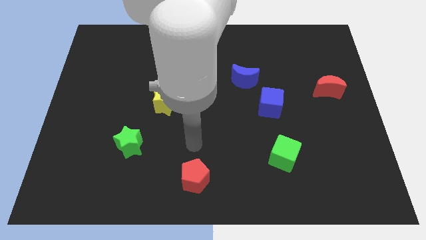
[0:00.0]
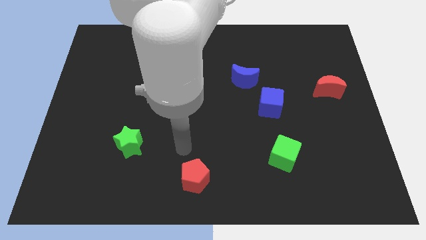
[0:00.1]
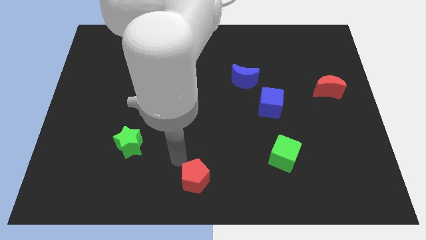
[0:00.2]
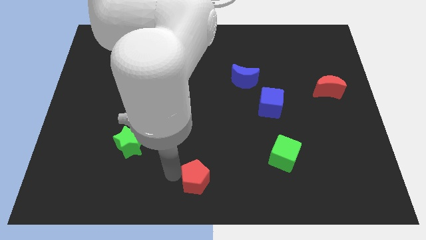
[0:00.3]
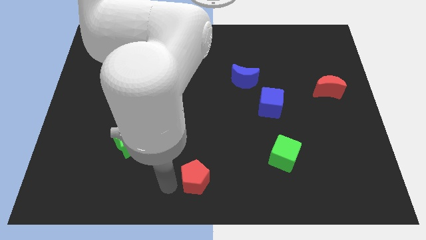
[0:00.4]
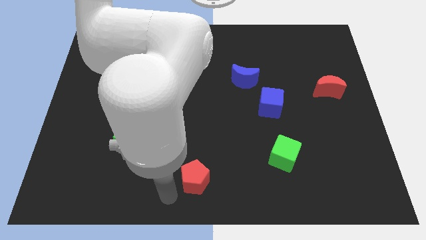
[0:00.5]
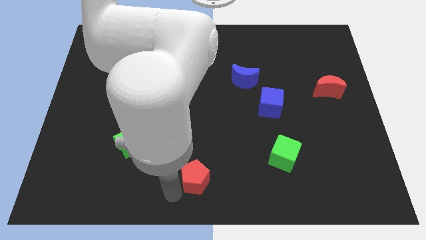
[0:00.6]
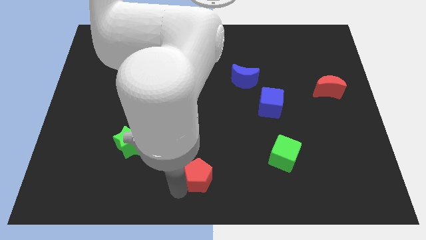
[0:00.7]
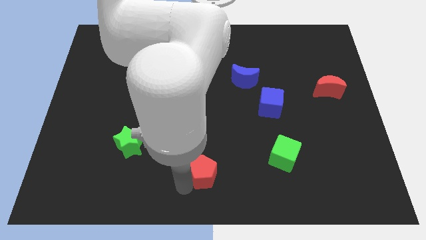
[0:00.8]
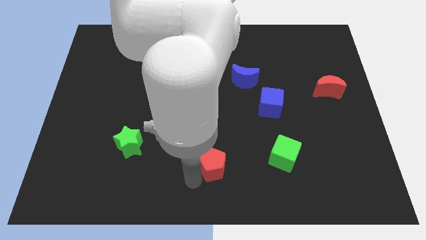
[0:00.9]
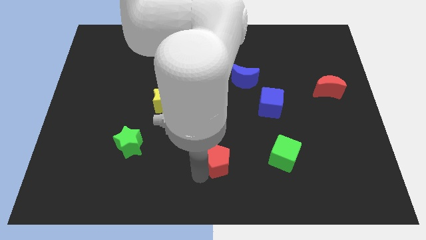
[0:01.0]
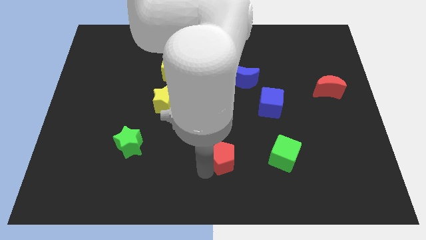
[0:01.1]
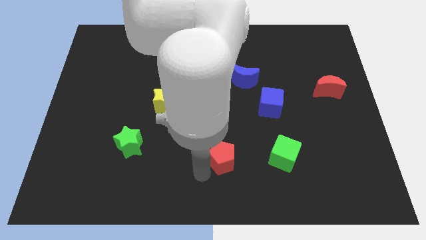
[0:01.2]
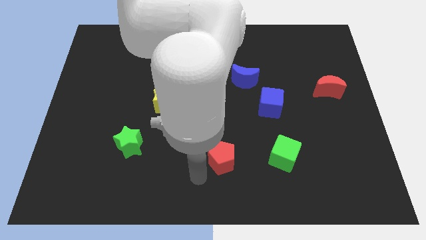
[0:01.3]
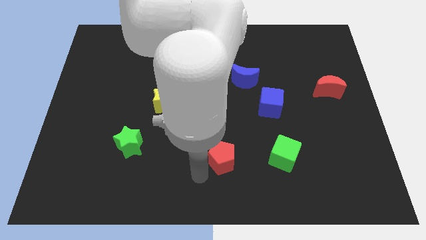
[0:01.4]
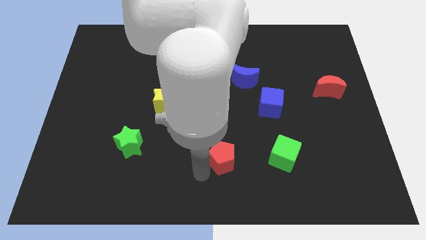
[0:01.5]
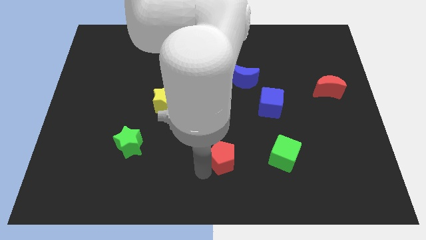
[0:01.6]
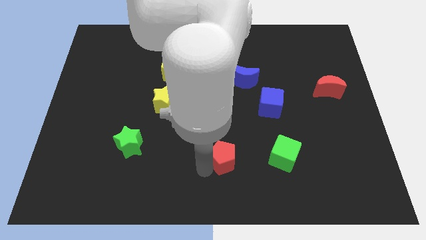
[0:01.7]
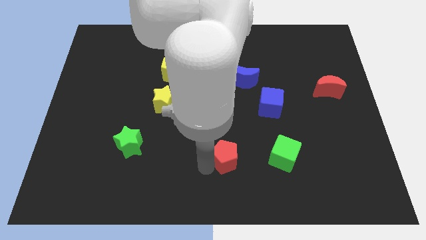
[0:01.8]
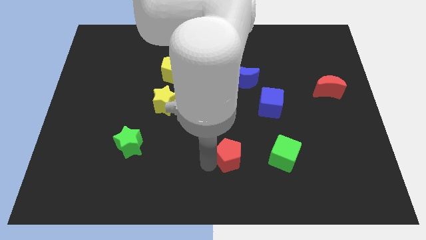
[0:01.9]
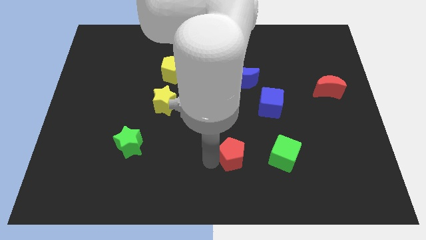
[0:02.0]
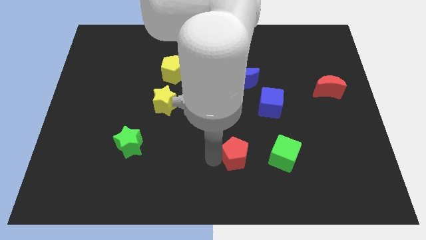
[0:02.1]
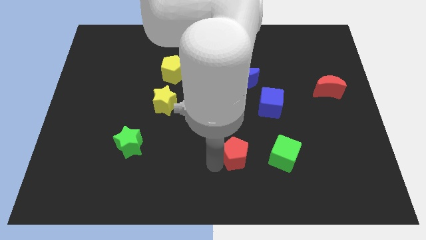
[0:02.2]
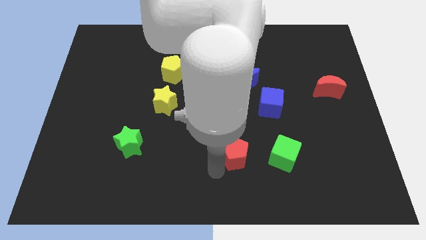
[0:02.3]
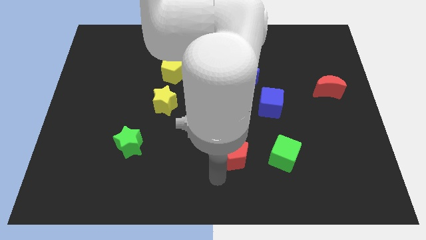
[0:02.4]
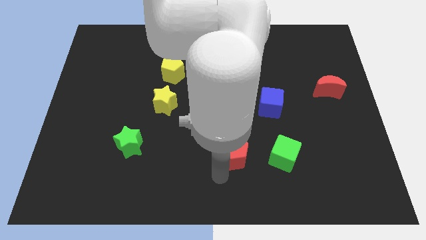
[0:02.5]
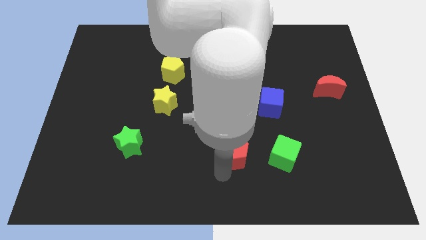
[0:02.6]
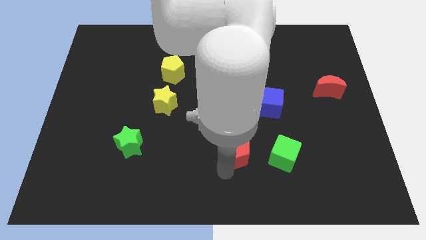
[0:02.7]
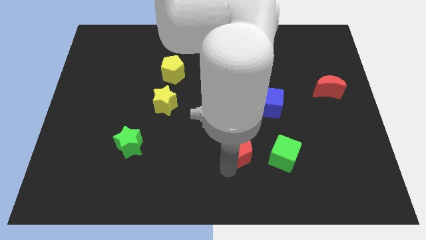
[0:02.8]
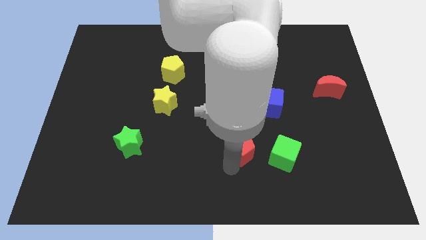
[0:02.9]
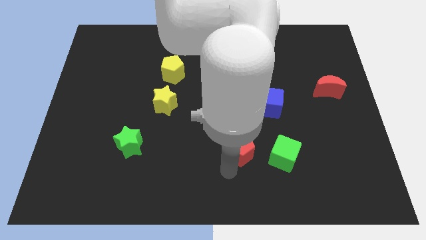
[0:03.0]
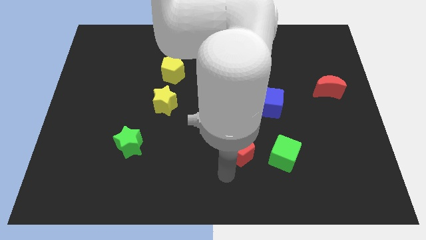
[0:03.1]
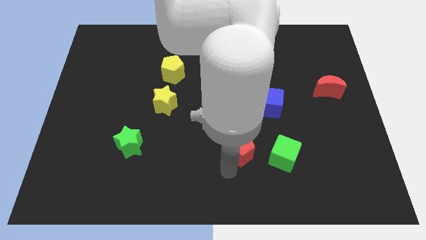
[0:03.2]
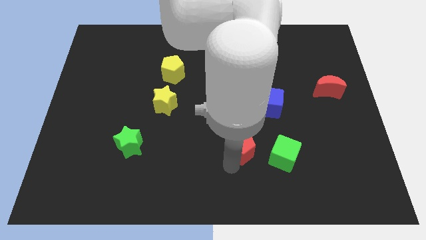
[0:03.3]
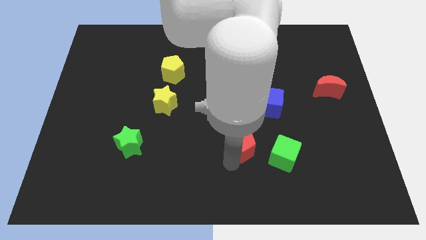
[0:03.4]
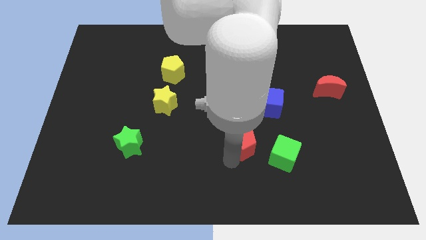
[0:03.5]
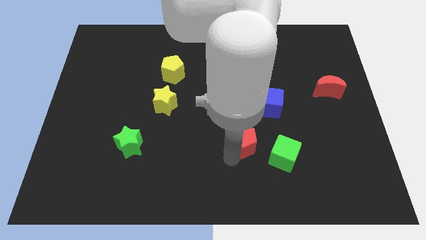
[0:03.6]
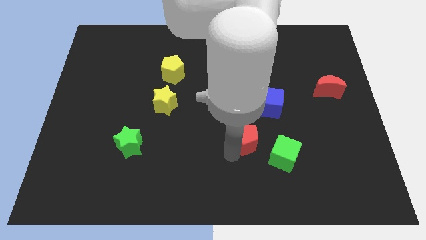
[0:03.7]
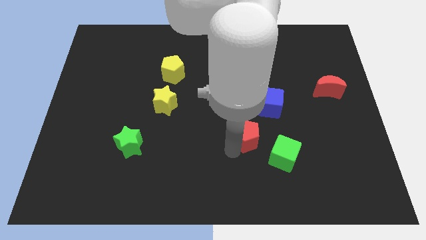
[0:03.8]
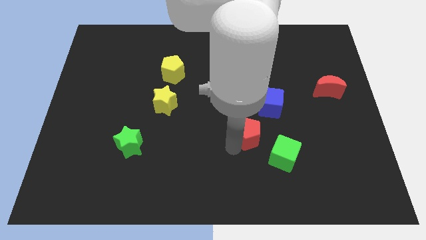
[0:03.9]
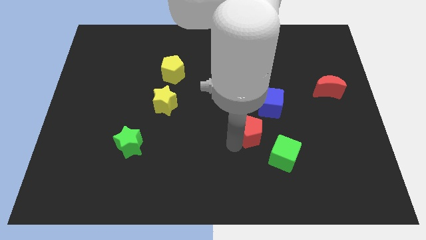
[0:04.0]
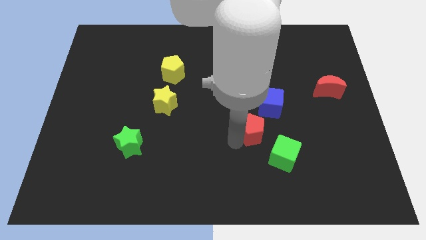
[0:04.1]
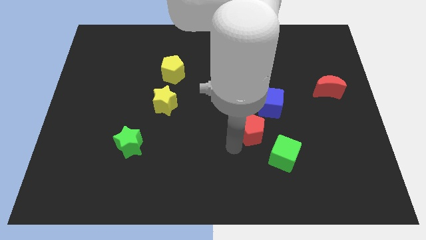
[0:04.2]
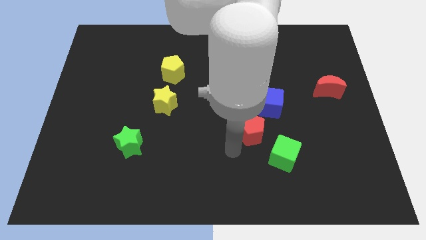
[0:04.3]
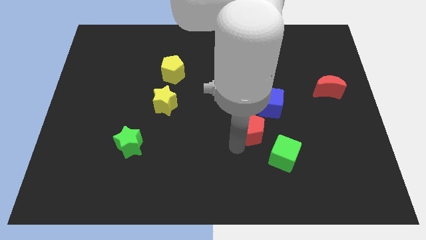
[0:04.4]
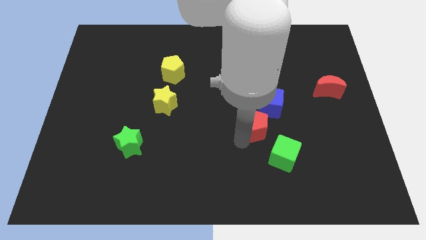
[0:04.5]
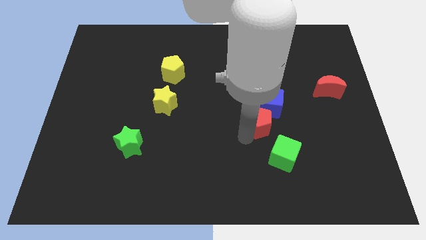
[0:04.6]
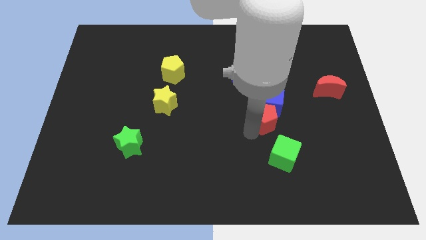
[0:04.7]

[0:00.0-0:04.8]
slide the red pentagon close to the blue cube

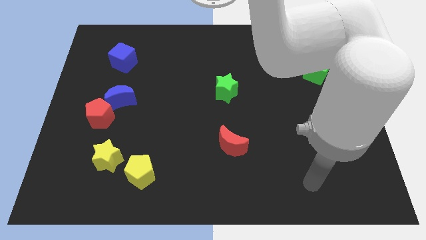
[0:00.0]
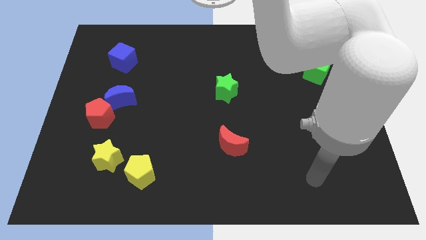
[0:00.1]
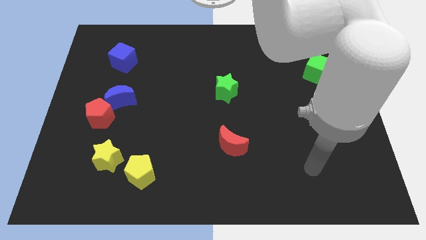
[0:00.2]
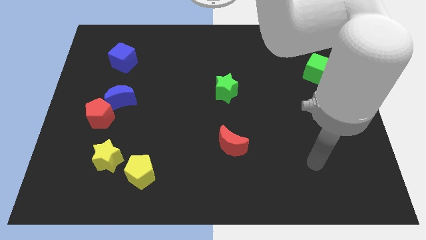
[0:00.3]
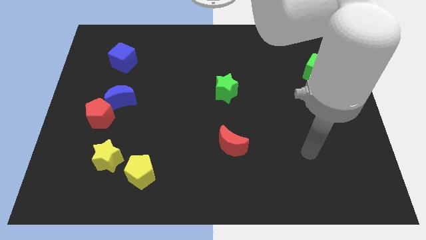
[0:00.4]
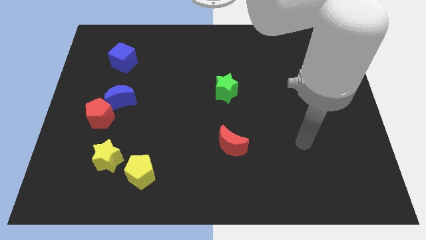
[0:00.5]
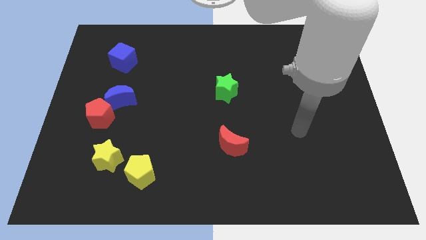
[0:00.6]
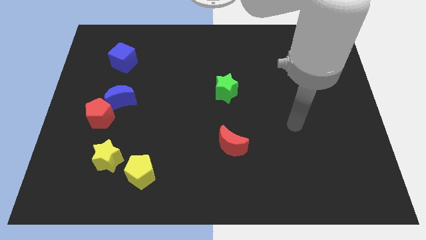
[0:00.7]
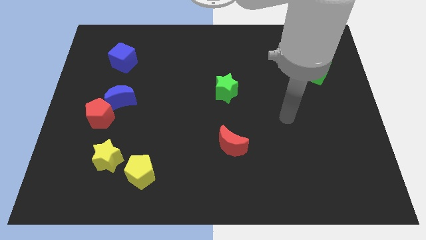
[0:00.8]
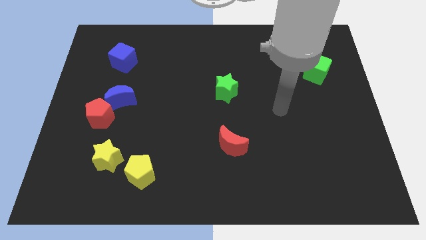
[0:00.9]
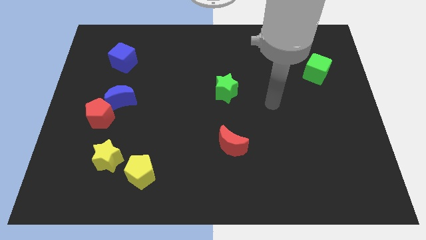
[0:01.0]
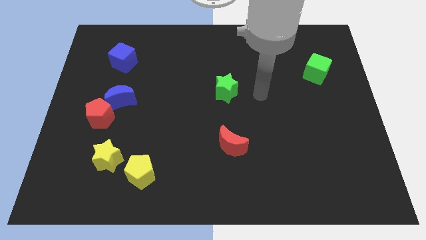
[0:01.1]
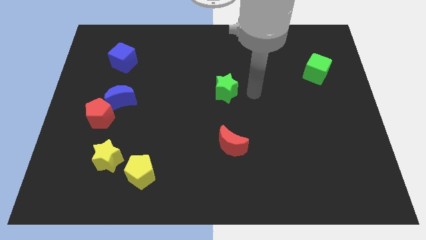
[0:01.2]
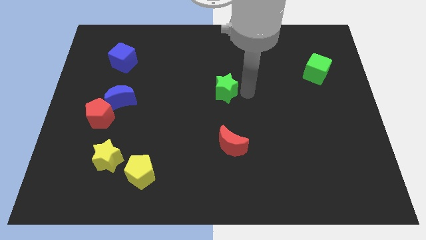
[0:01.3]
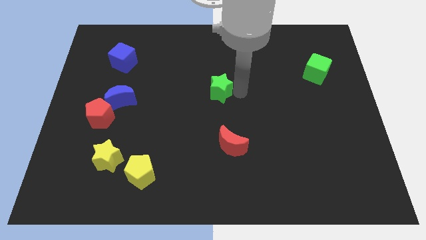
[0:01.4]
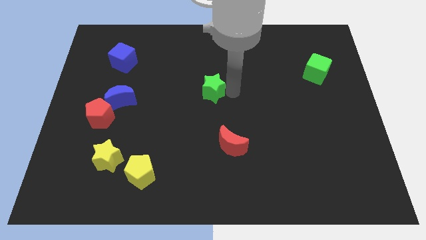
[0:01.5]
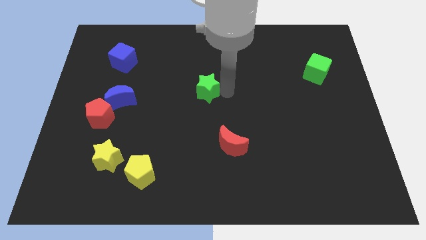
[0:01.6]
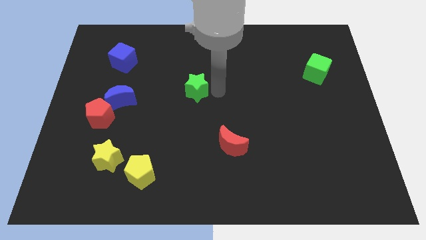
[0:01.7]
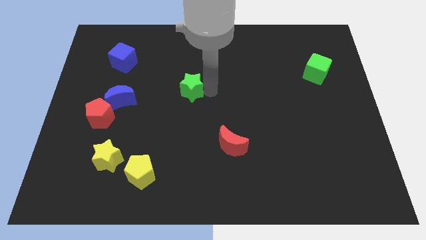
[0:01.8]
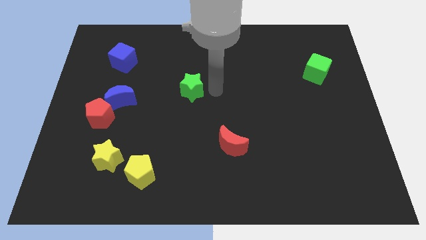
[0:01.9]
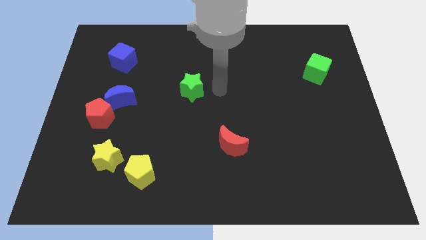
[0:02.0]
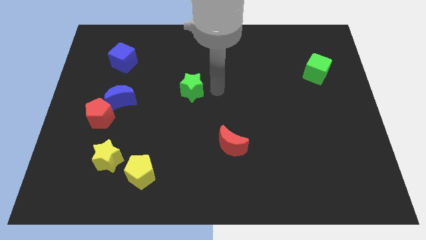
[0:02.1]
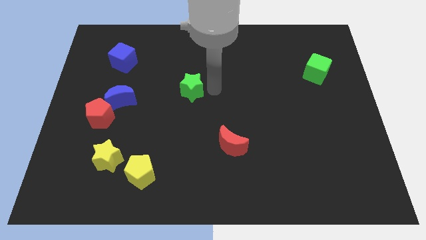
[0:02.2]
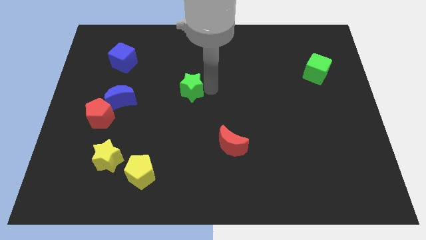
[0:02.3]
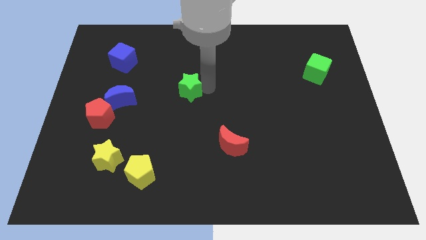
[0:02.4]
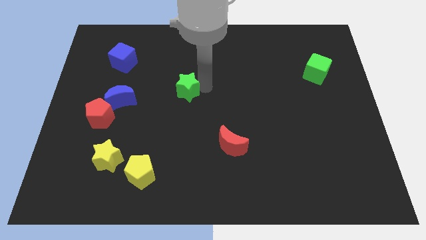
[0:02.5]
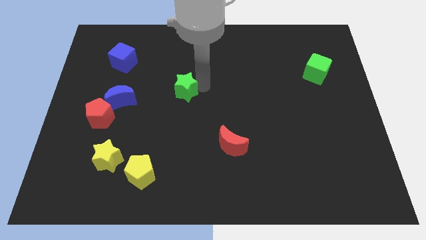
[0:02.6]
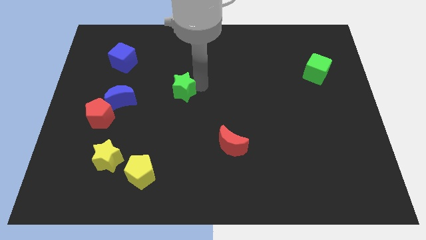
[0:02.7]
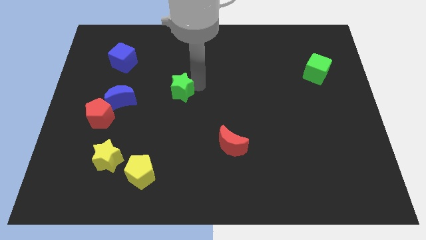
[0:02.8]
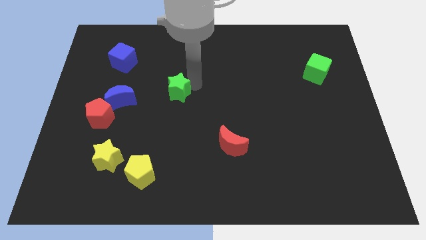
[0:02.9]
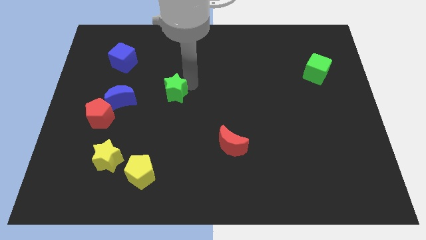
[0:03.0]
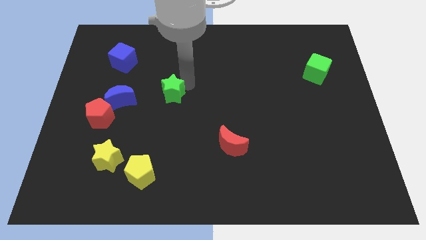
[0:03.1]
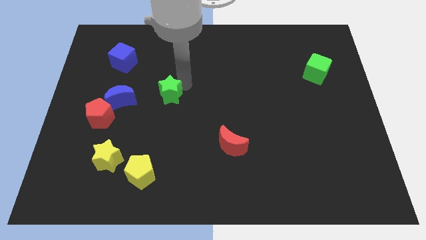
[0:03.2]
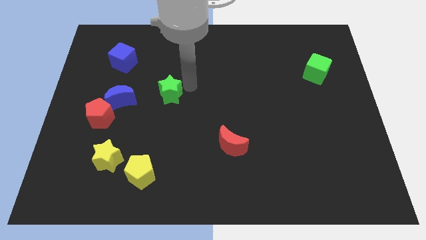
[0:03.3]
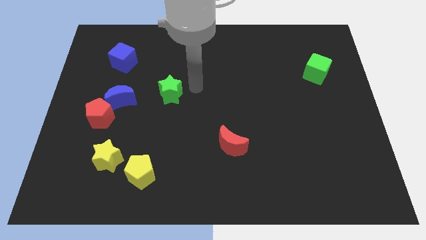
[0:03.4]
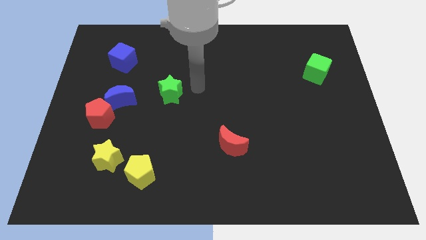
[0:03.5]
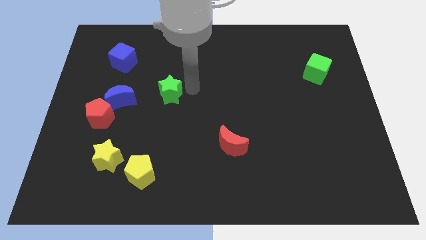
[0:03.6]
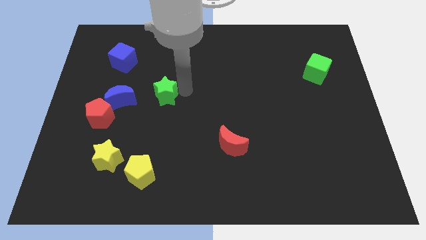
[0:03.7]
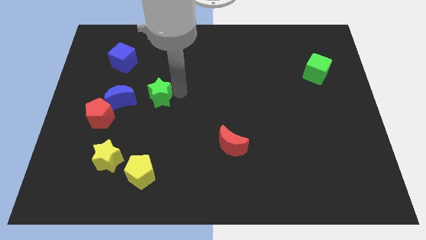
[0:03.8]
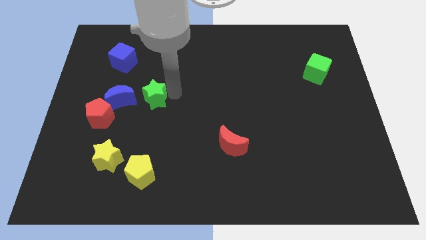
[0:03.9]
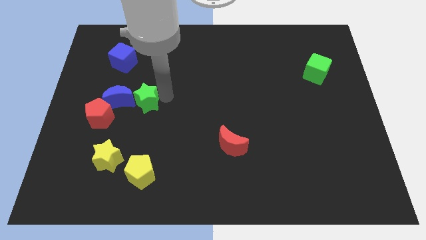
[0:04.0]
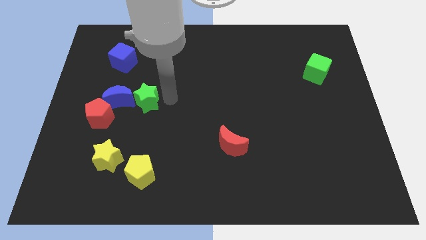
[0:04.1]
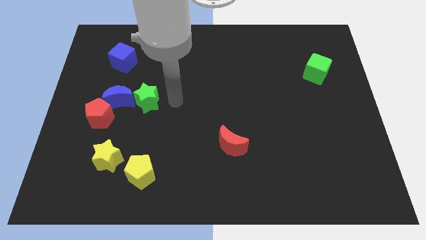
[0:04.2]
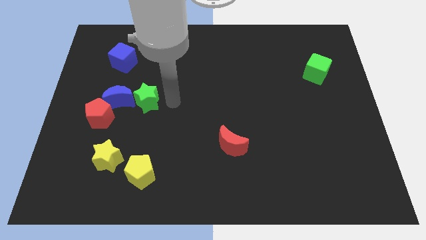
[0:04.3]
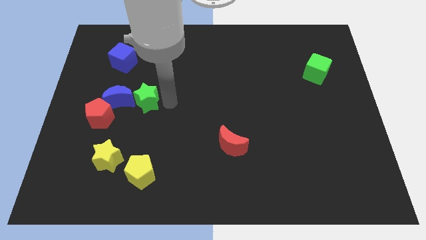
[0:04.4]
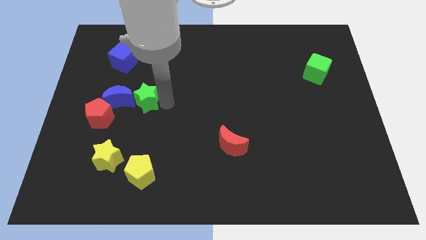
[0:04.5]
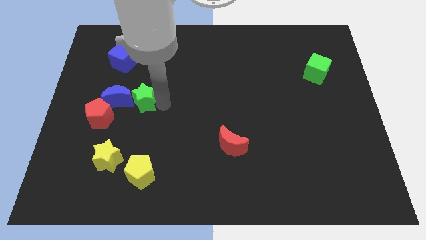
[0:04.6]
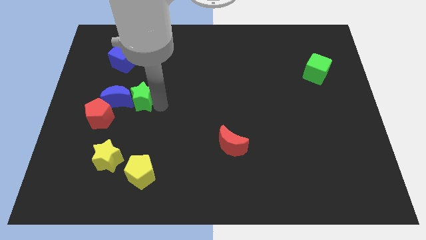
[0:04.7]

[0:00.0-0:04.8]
slide the green star next to the blue moon
